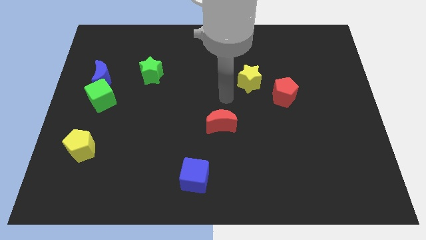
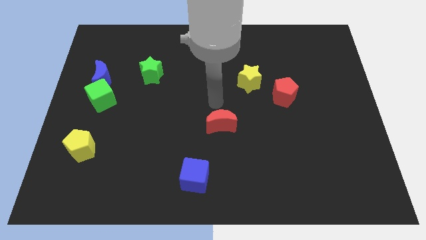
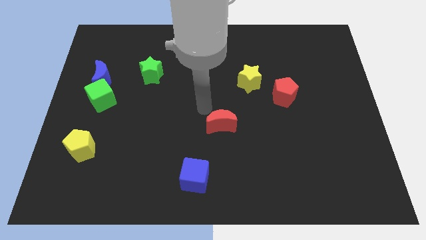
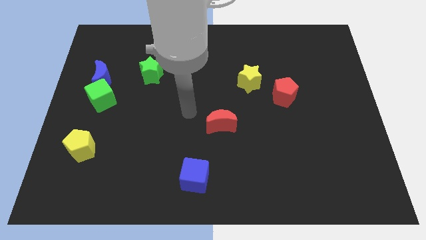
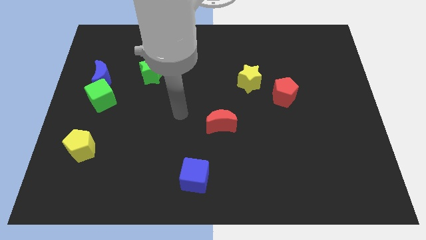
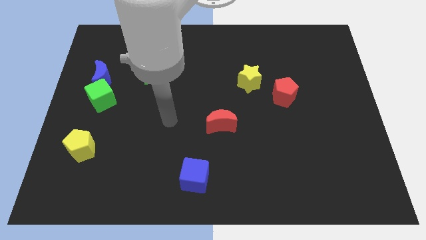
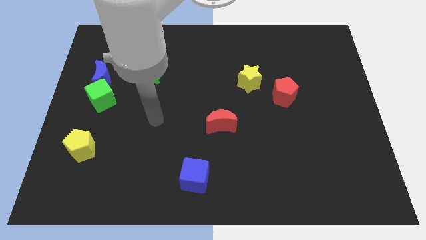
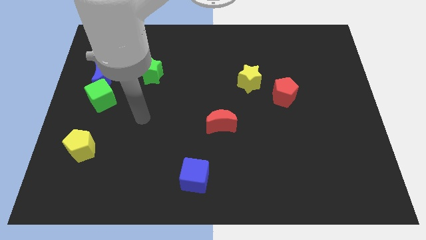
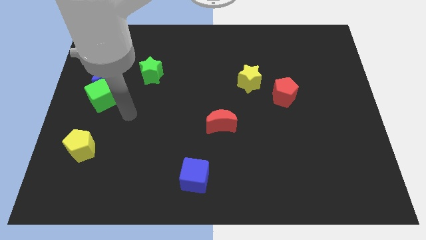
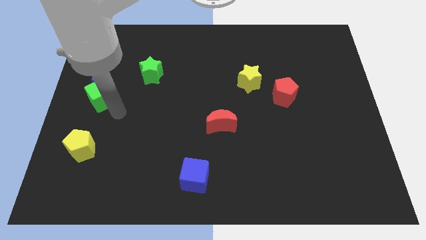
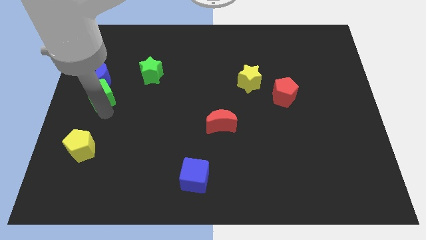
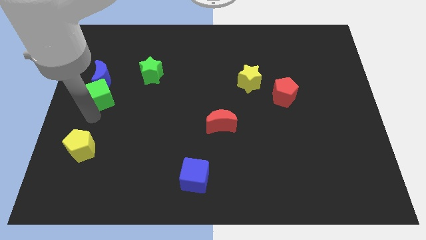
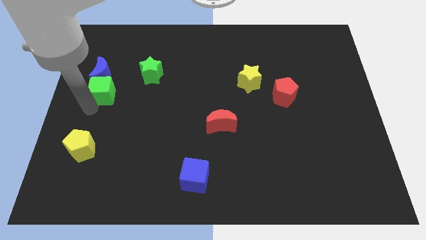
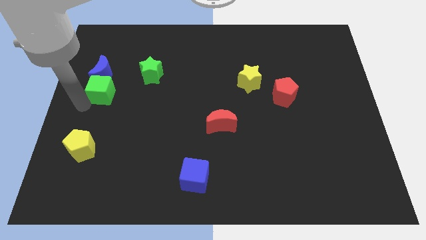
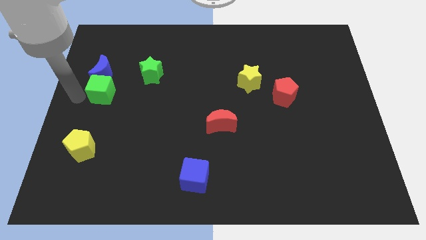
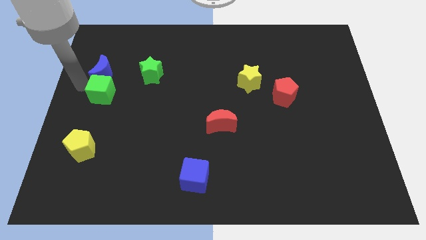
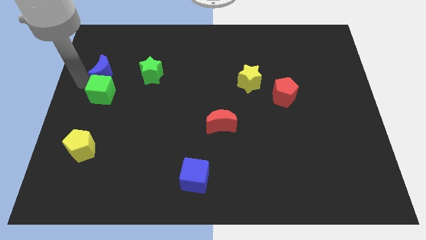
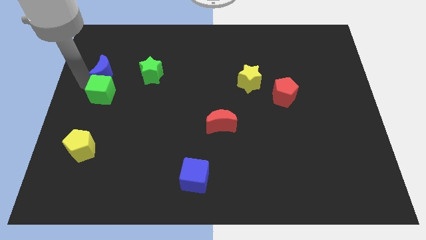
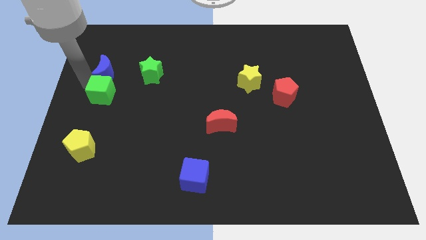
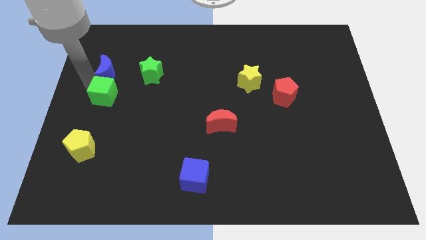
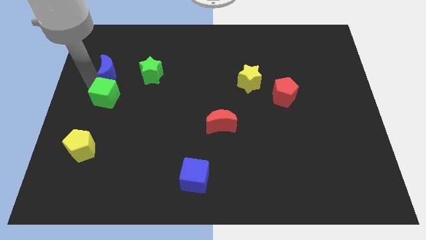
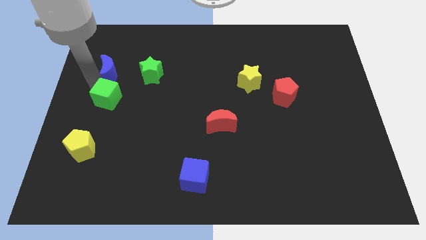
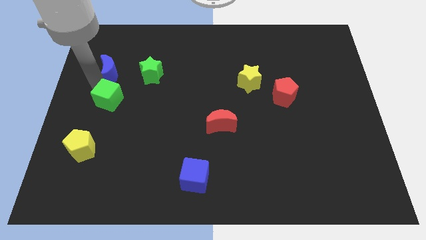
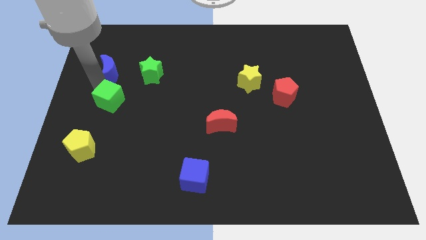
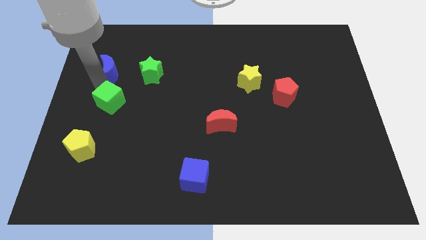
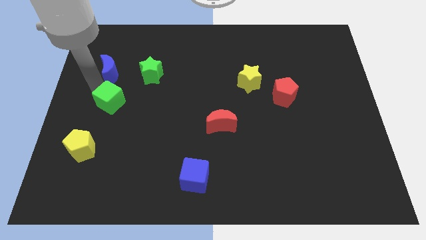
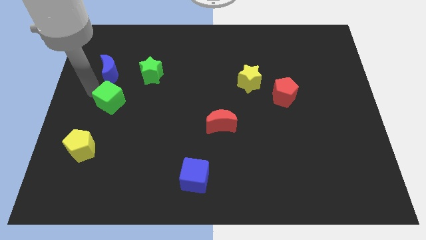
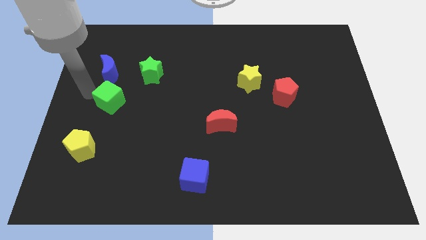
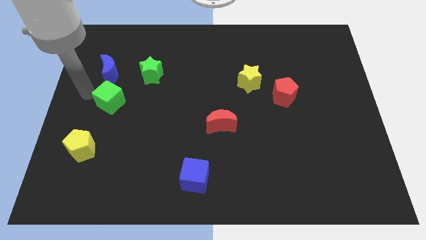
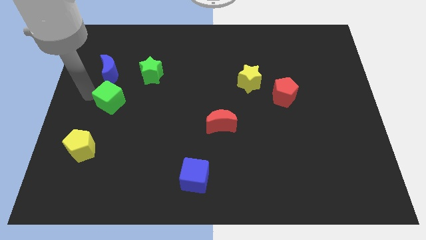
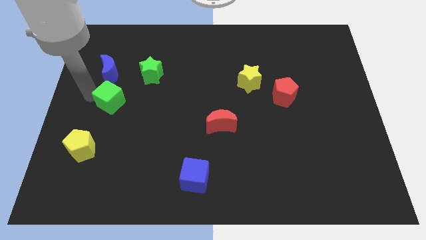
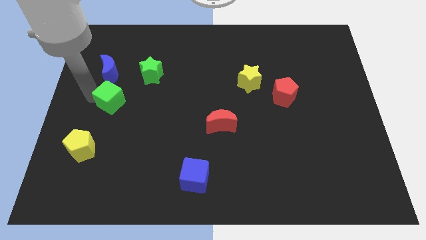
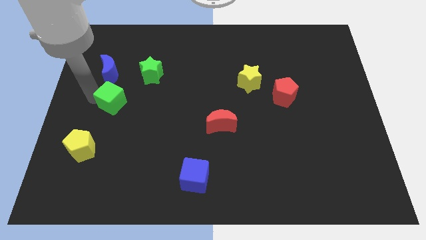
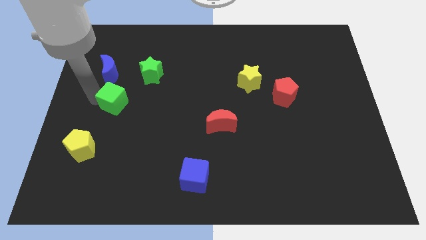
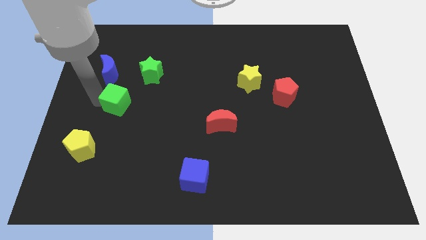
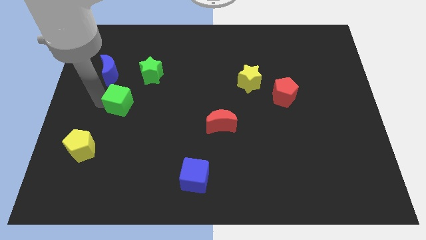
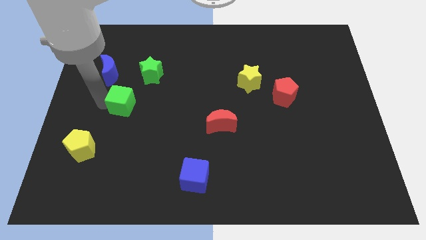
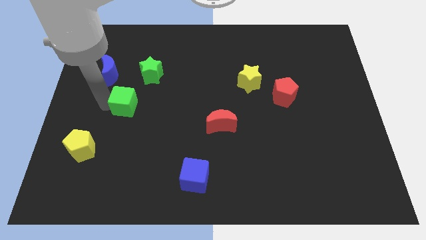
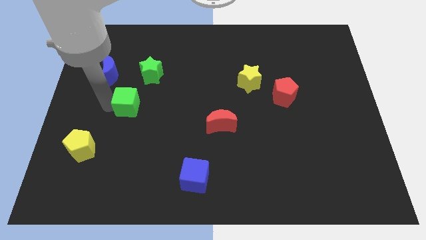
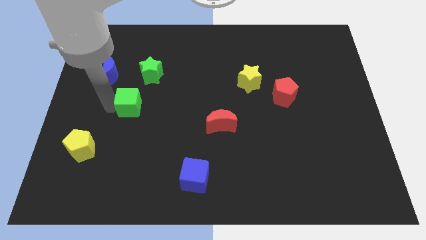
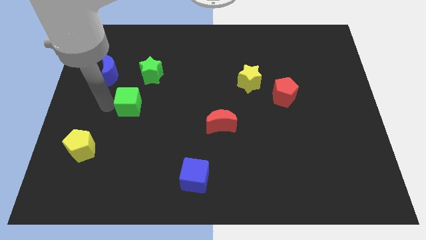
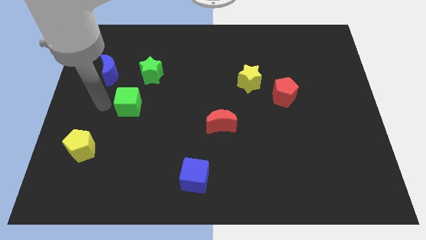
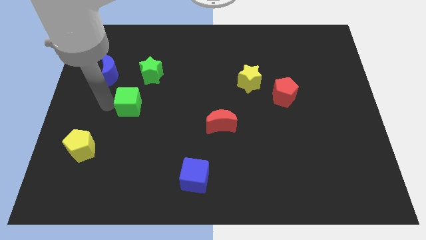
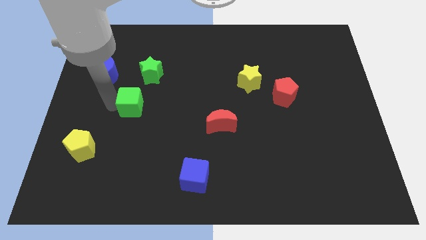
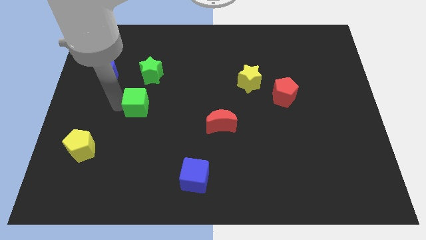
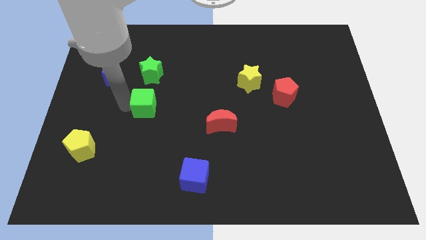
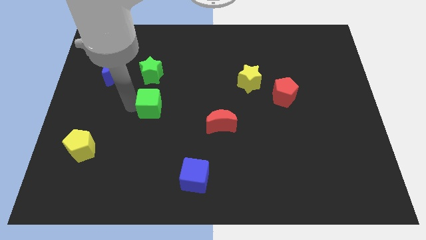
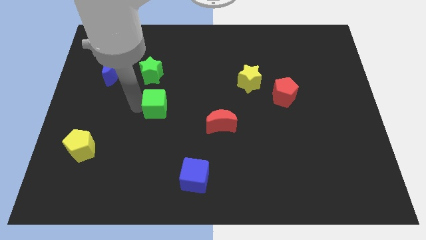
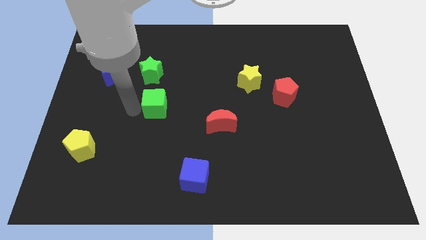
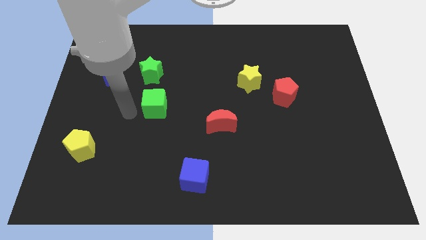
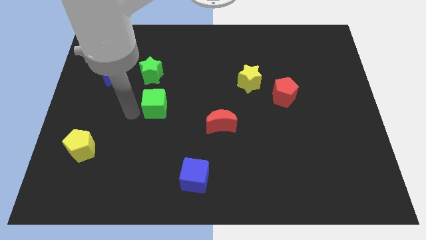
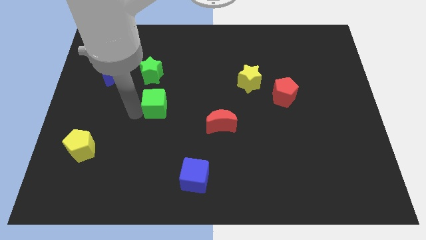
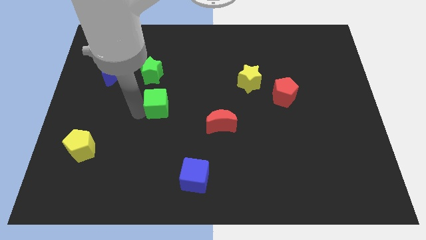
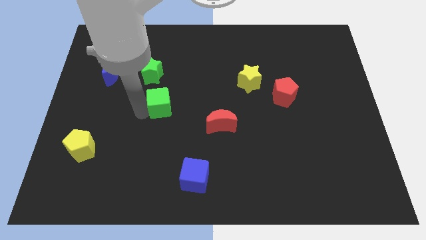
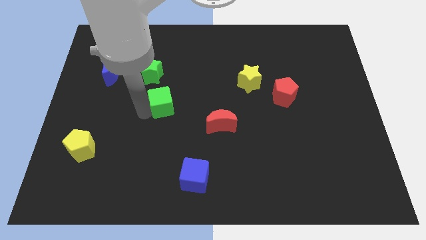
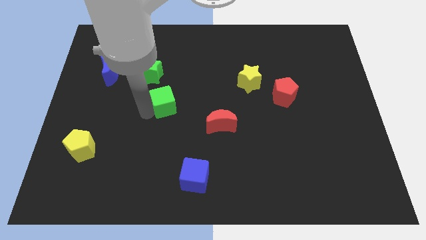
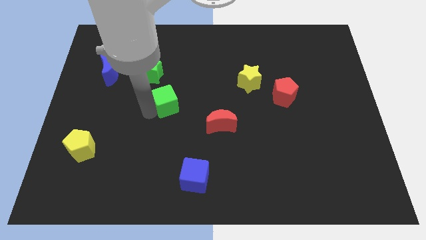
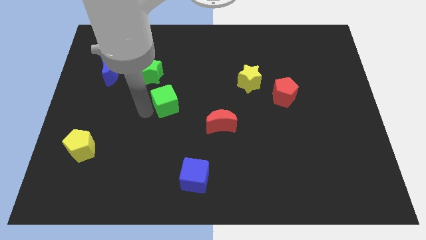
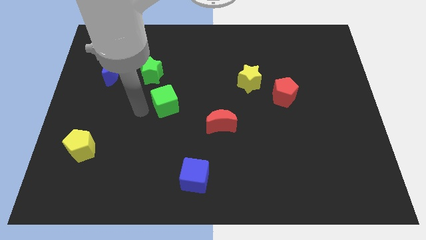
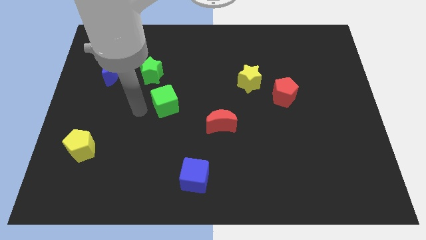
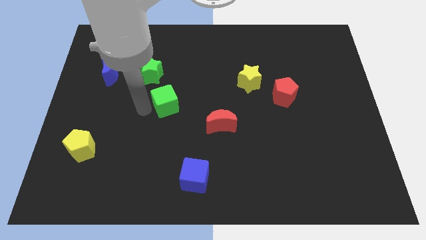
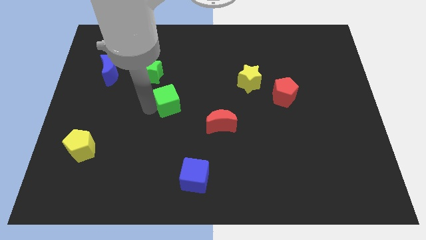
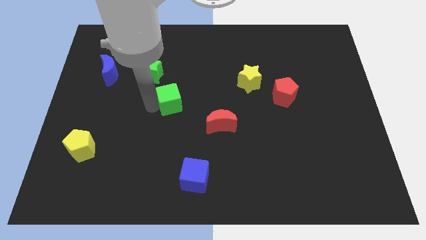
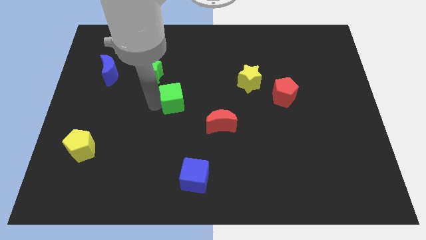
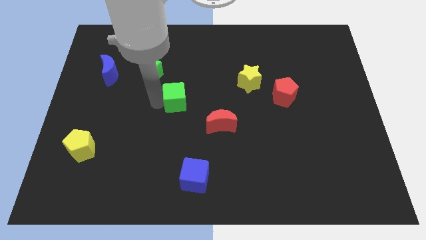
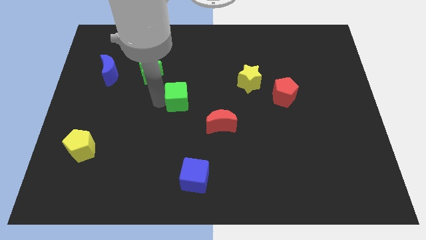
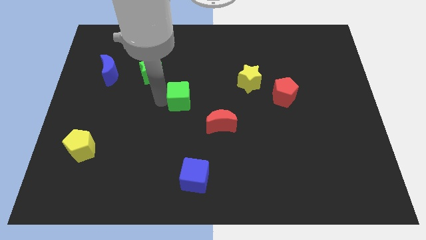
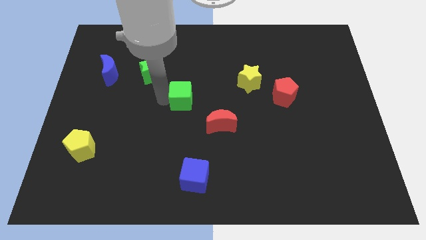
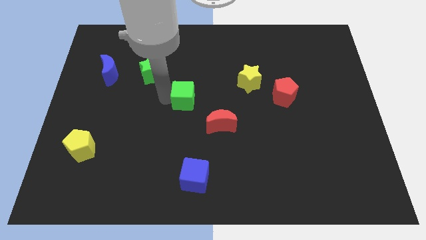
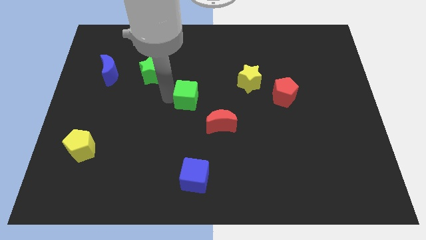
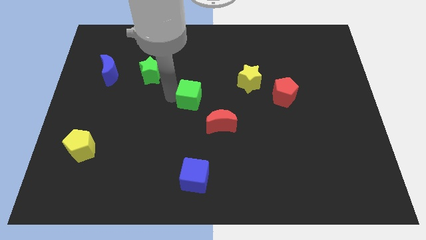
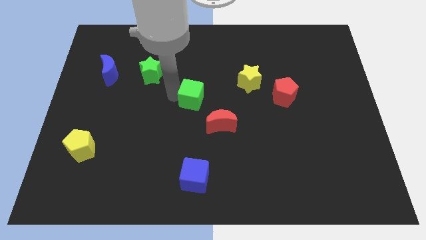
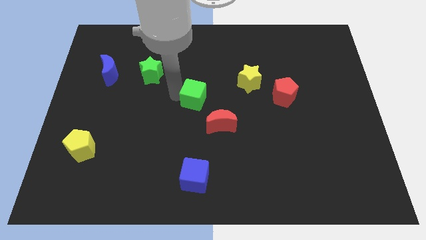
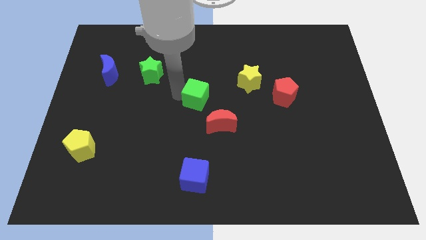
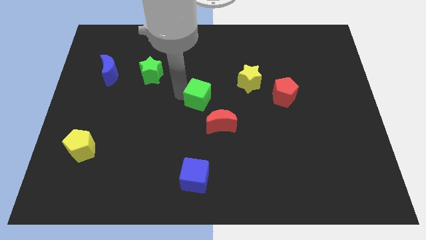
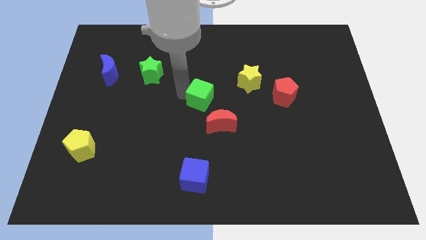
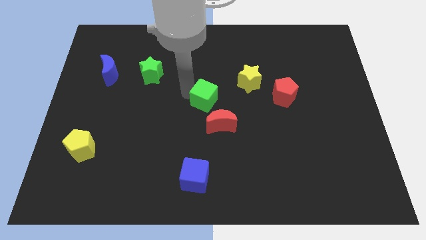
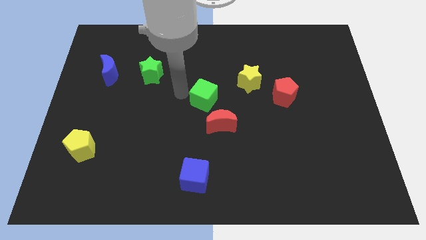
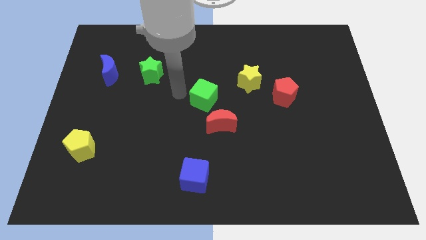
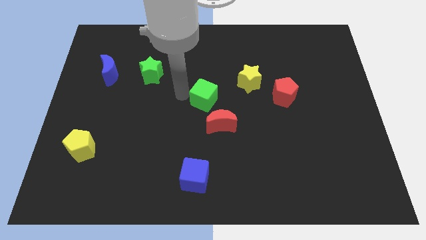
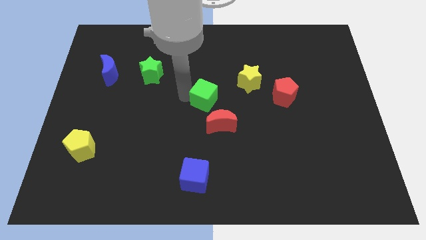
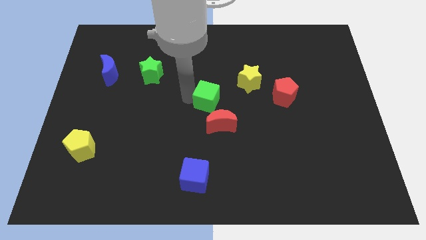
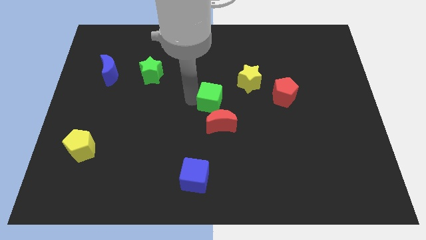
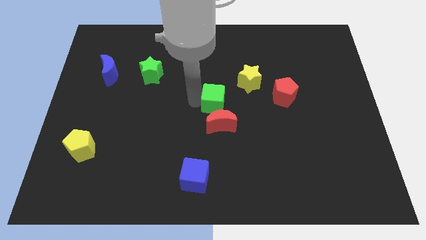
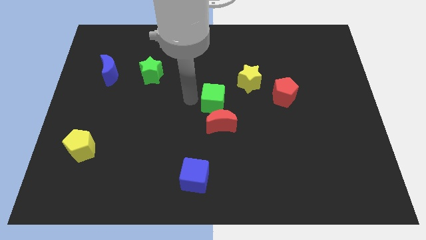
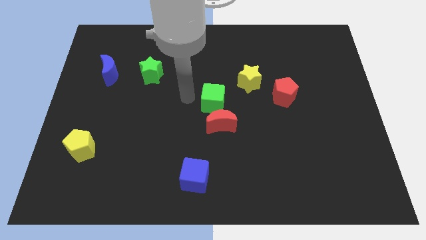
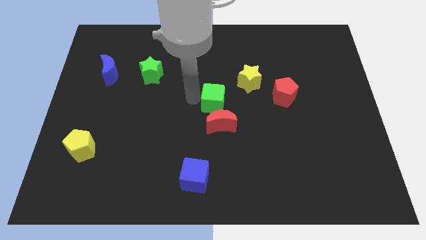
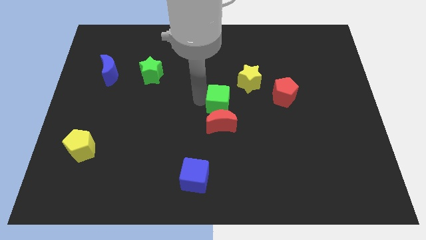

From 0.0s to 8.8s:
push the green cube to the top right side of the red moon
